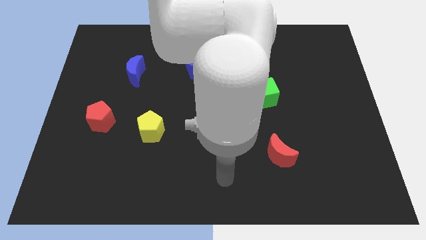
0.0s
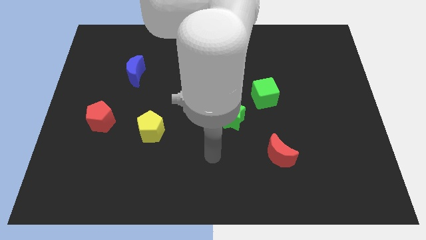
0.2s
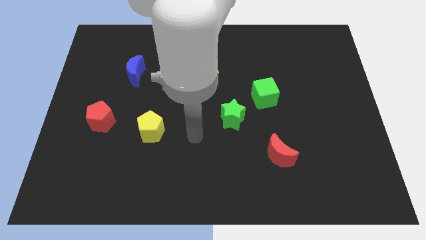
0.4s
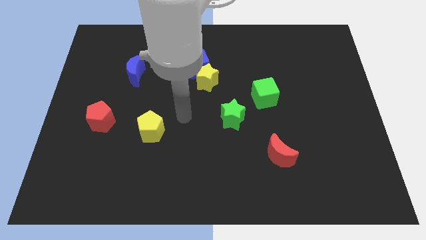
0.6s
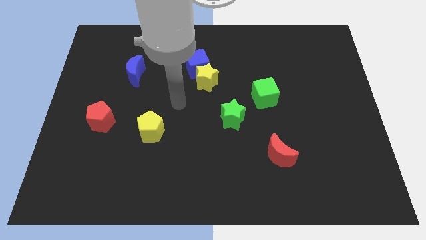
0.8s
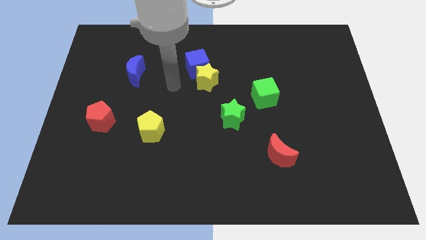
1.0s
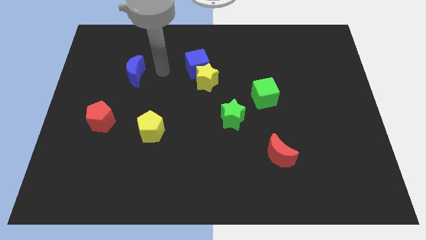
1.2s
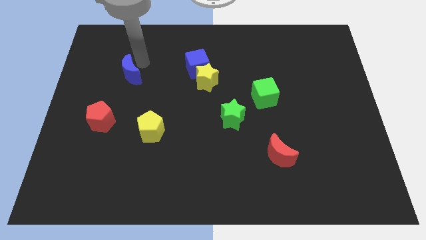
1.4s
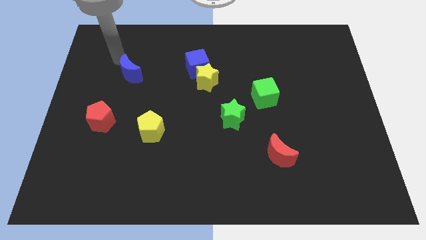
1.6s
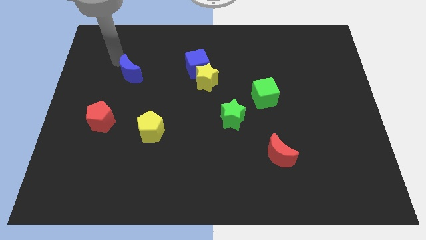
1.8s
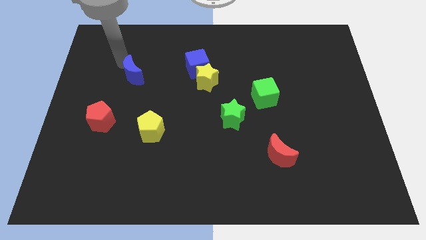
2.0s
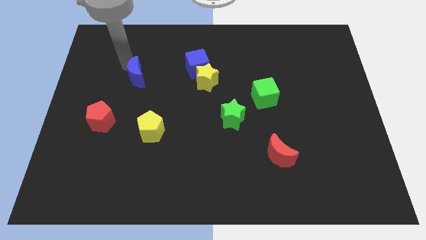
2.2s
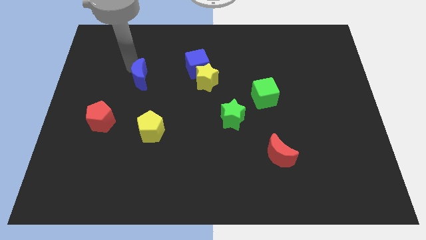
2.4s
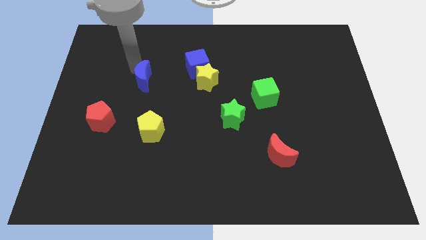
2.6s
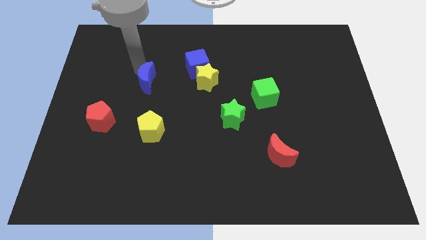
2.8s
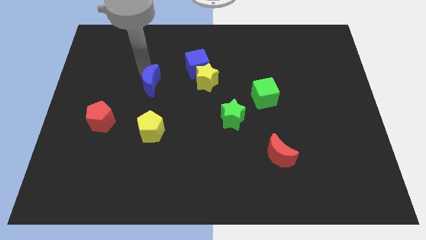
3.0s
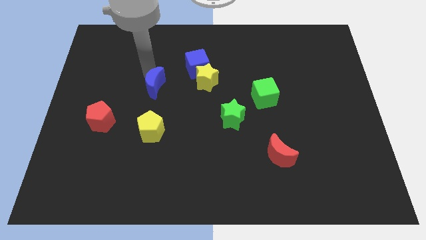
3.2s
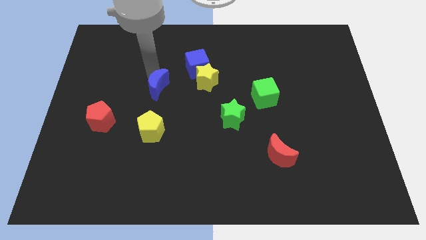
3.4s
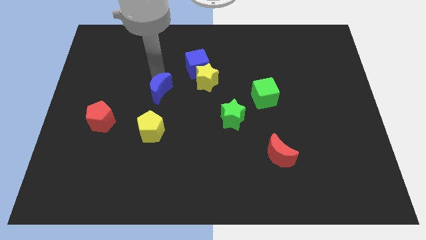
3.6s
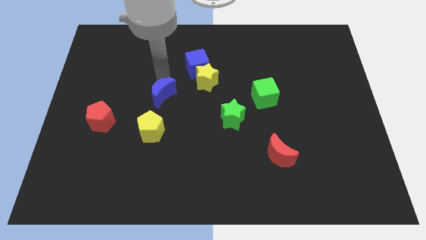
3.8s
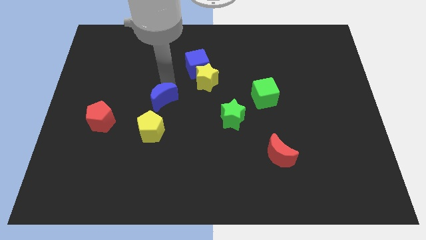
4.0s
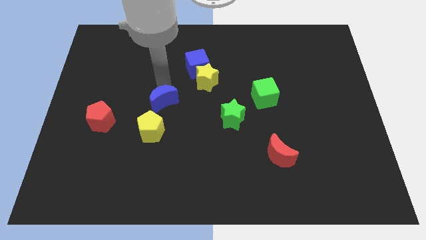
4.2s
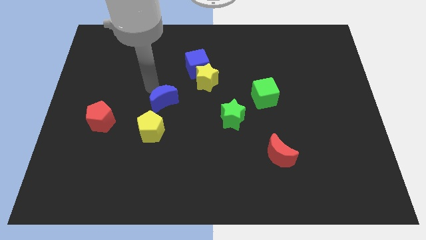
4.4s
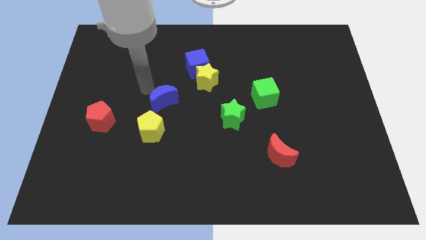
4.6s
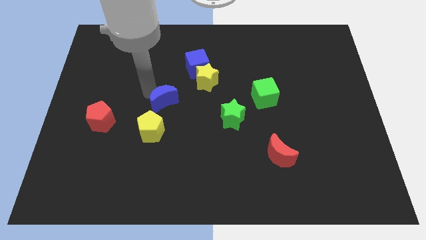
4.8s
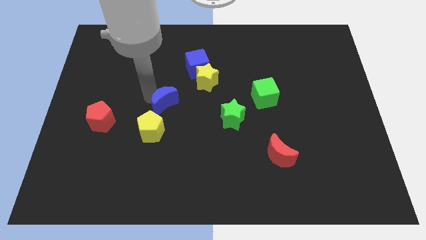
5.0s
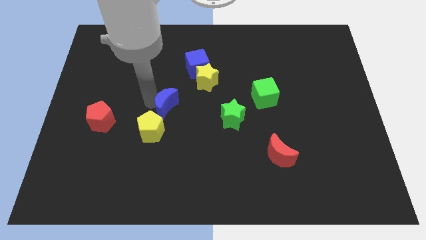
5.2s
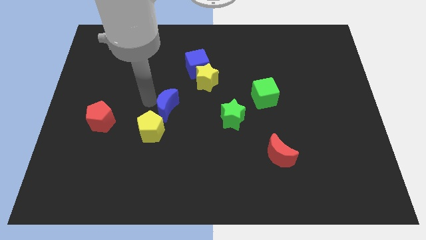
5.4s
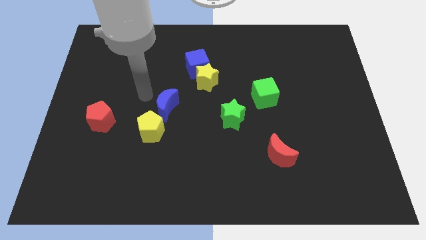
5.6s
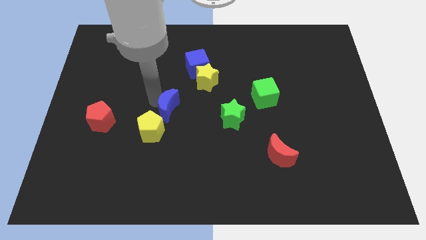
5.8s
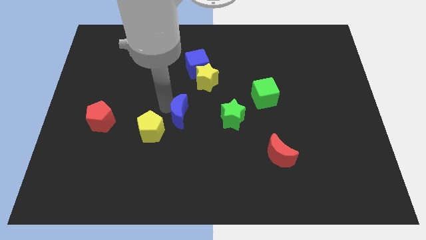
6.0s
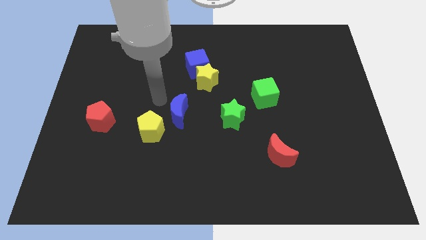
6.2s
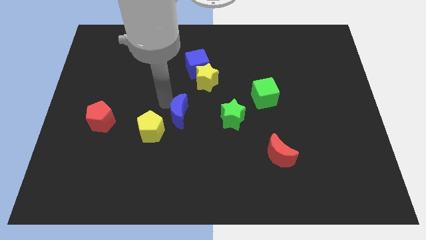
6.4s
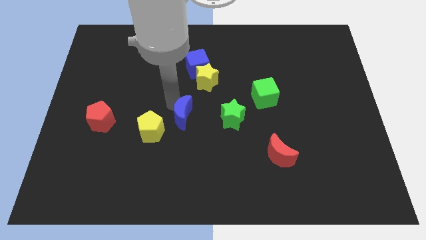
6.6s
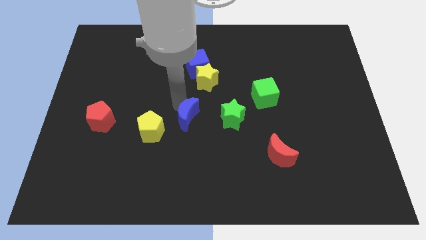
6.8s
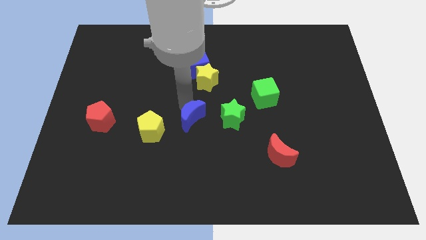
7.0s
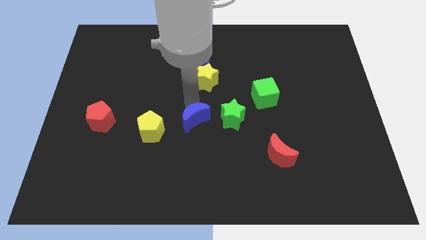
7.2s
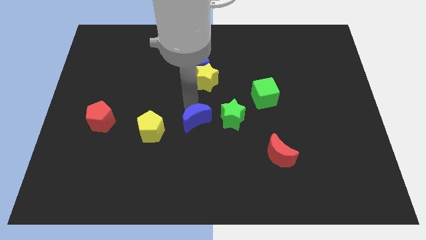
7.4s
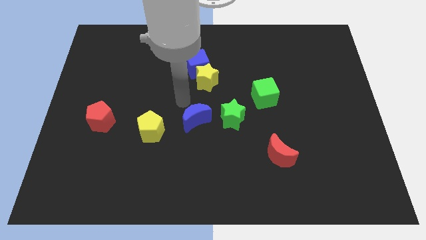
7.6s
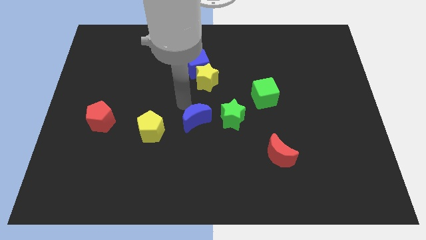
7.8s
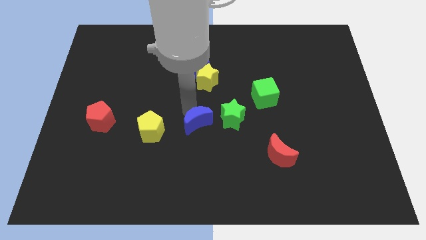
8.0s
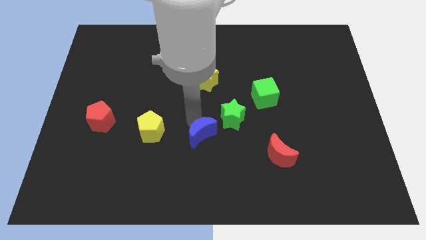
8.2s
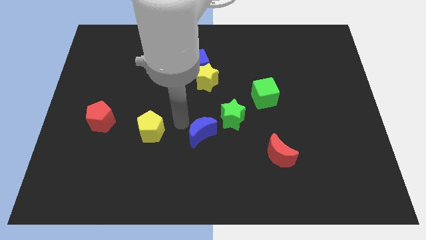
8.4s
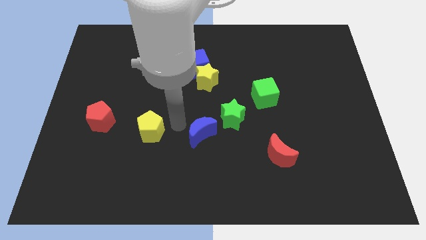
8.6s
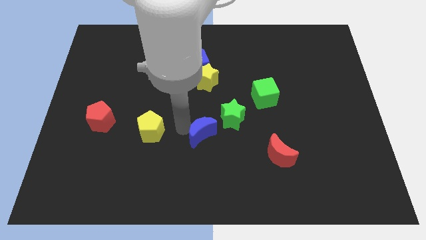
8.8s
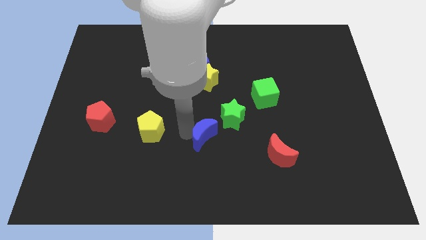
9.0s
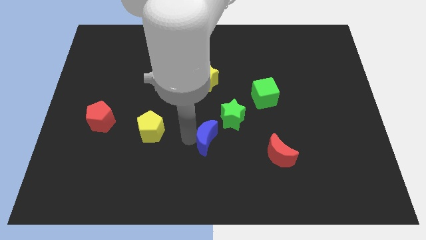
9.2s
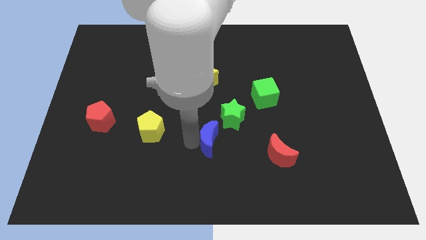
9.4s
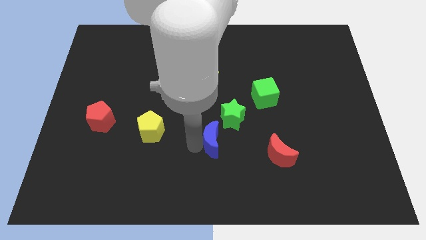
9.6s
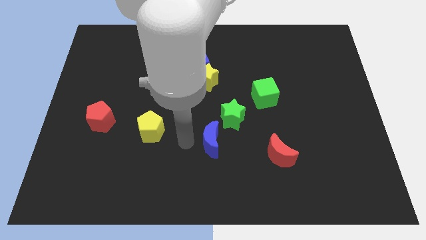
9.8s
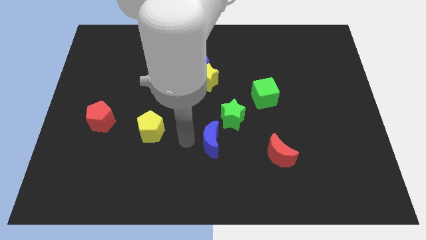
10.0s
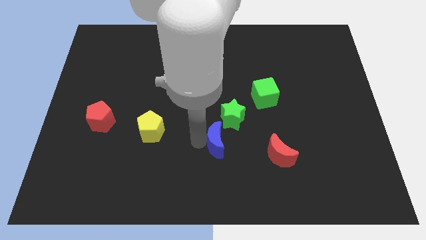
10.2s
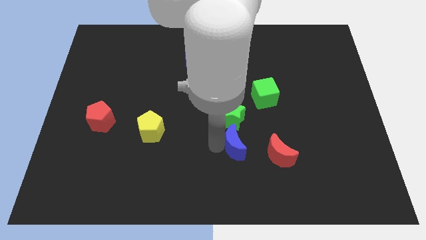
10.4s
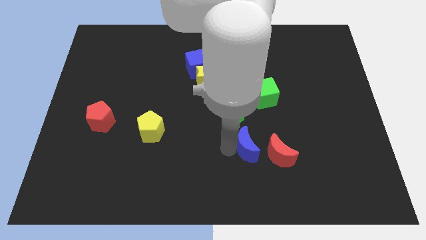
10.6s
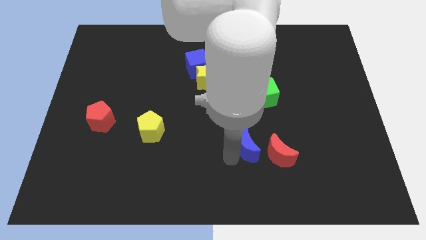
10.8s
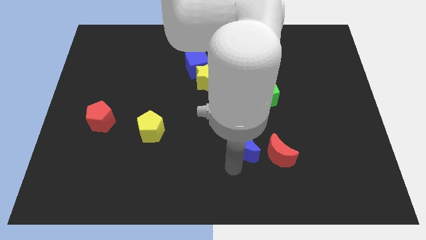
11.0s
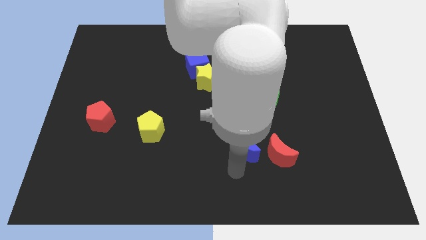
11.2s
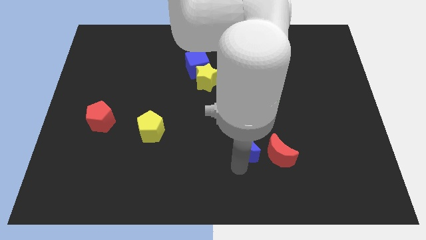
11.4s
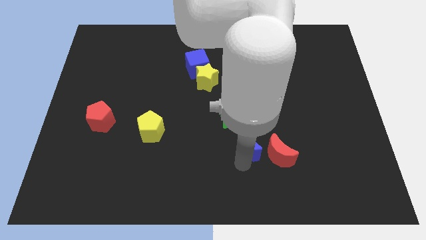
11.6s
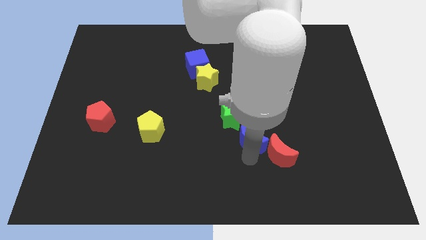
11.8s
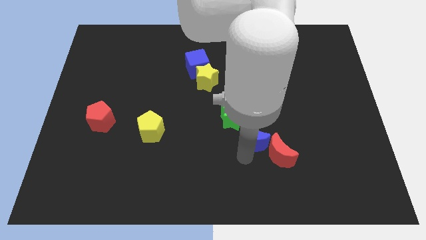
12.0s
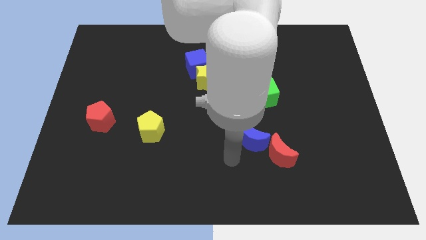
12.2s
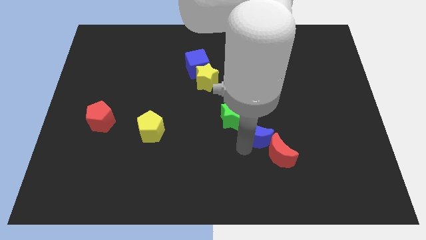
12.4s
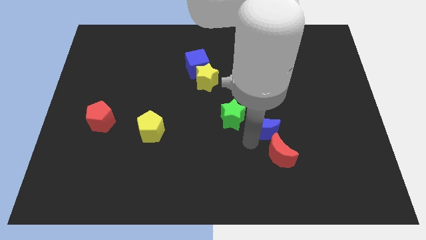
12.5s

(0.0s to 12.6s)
move the blue moon right of the green star
